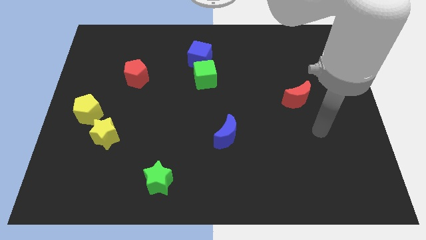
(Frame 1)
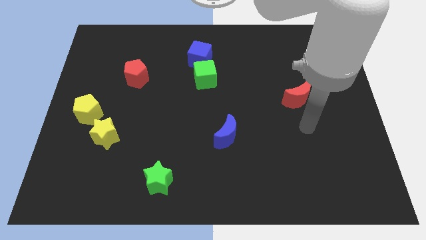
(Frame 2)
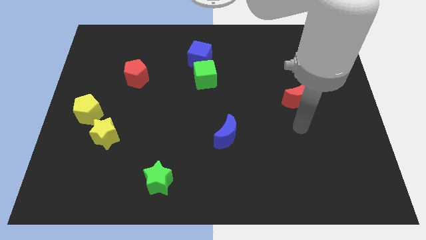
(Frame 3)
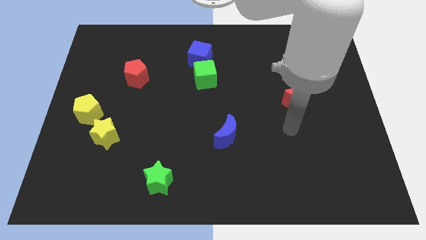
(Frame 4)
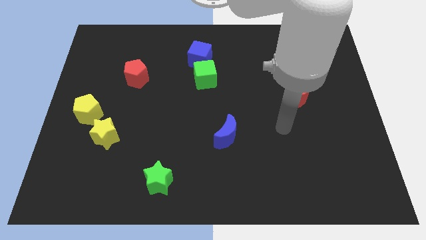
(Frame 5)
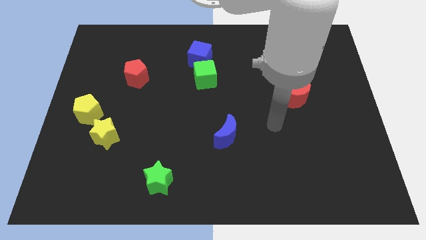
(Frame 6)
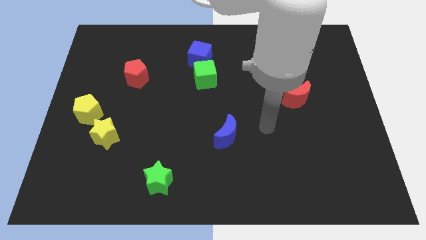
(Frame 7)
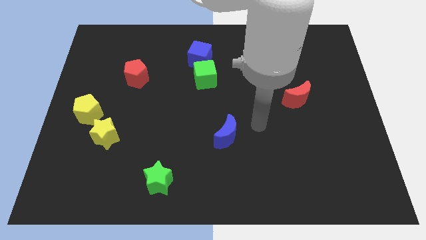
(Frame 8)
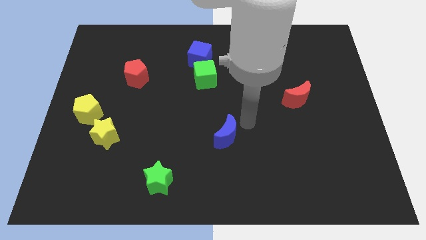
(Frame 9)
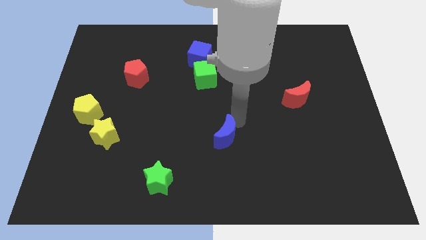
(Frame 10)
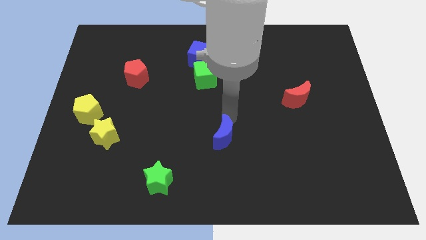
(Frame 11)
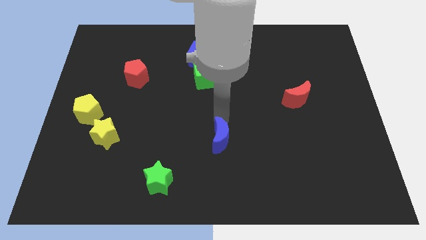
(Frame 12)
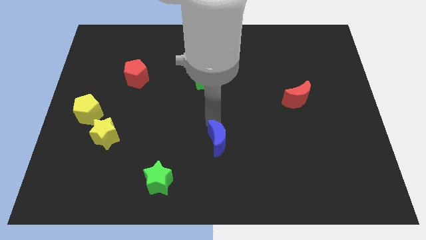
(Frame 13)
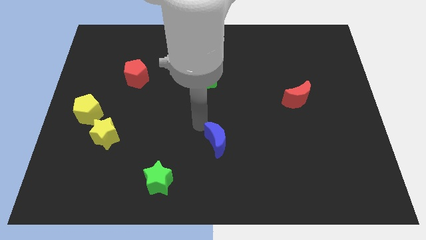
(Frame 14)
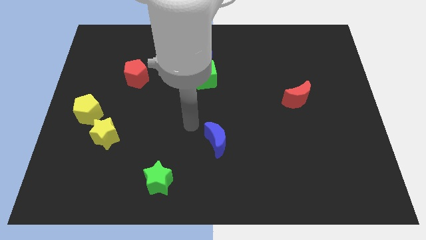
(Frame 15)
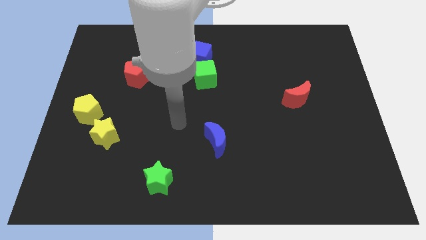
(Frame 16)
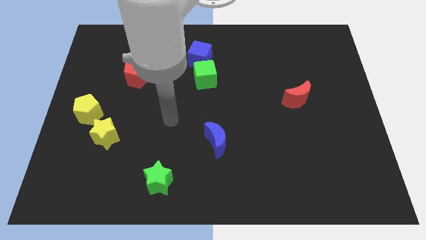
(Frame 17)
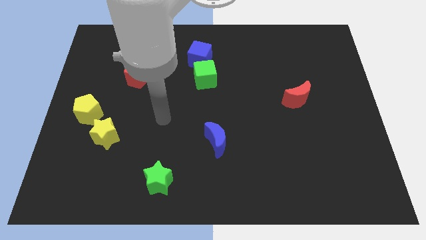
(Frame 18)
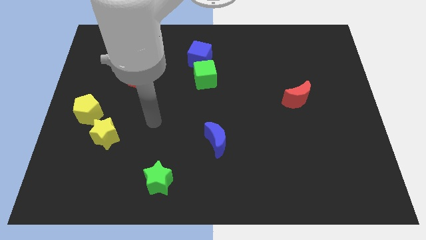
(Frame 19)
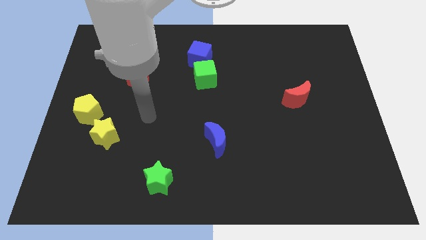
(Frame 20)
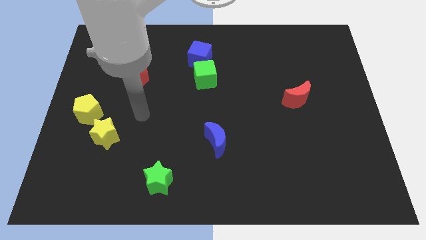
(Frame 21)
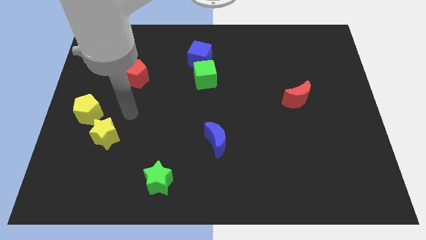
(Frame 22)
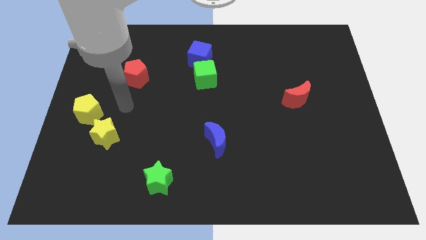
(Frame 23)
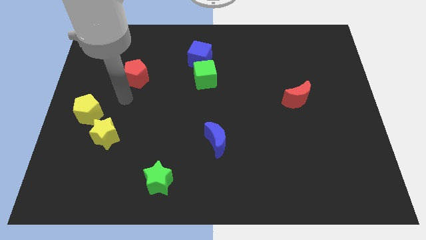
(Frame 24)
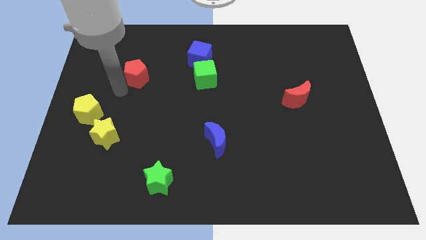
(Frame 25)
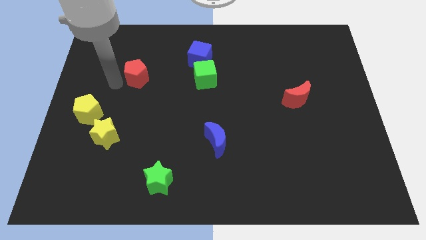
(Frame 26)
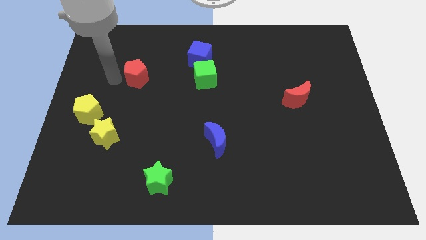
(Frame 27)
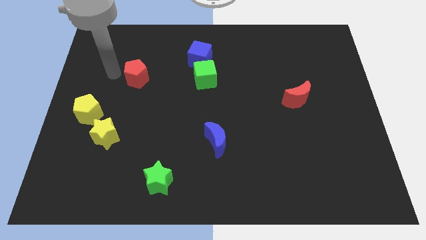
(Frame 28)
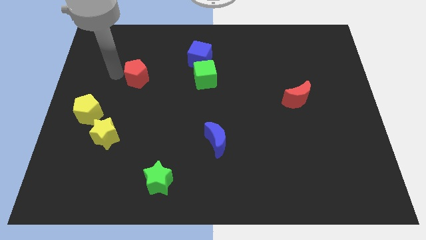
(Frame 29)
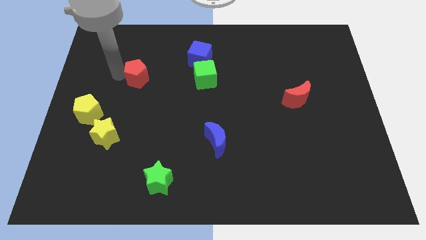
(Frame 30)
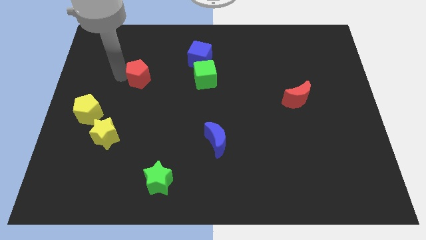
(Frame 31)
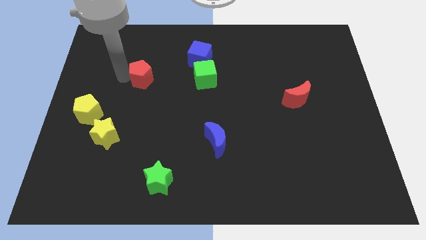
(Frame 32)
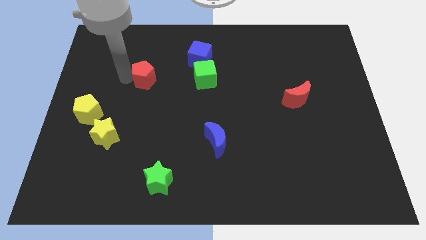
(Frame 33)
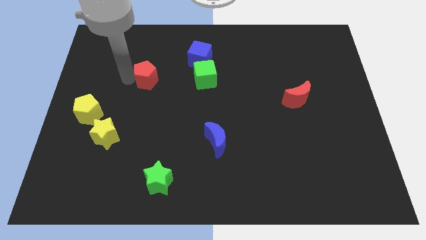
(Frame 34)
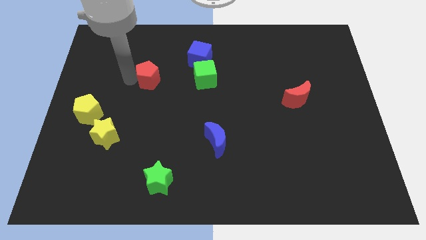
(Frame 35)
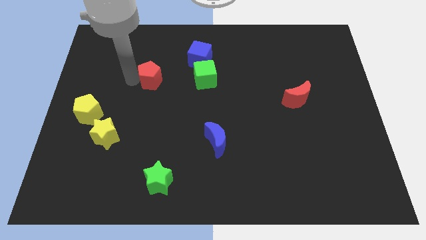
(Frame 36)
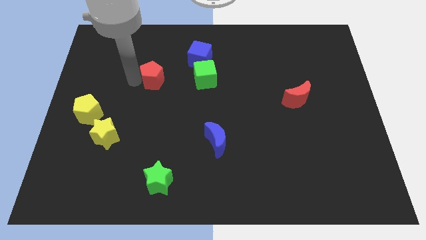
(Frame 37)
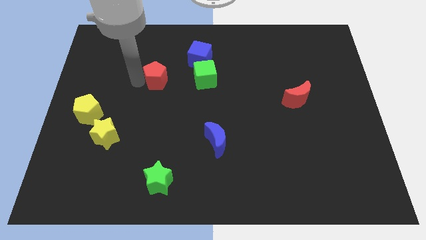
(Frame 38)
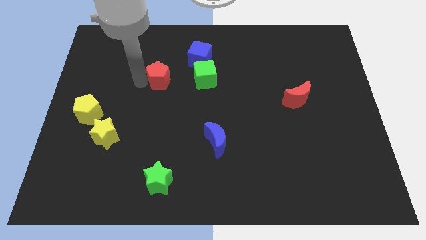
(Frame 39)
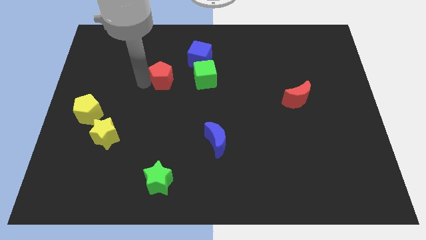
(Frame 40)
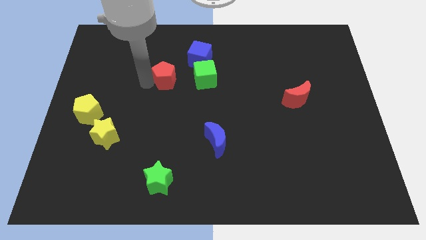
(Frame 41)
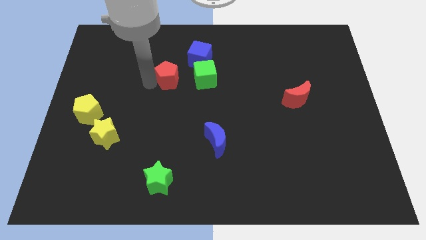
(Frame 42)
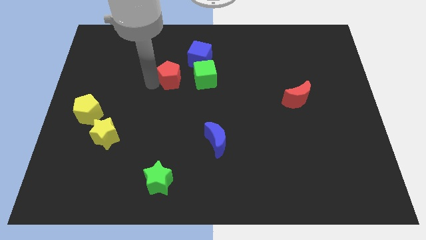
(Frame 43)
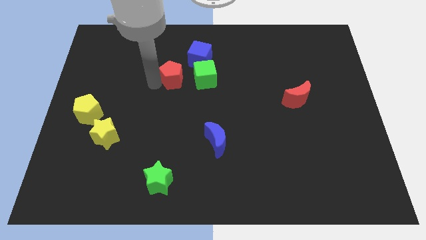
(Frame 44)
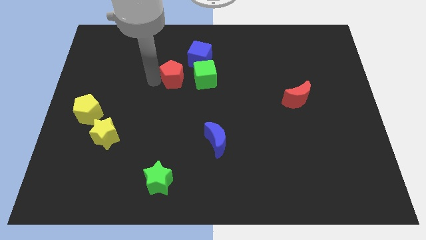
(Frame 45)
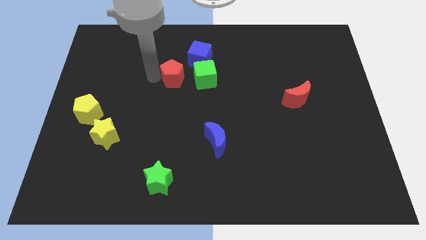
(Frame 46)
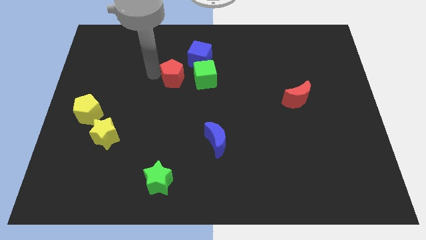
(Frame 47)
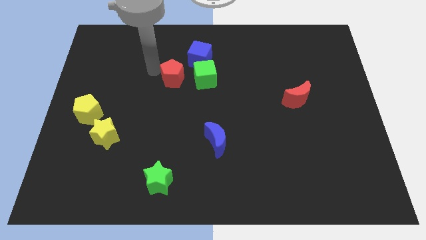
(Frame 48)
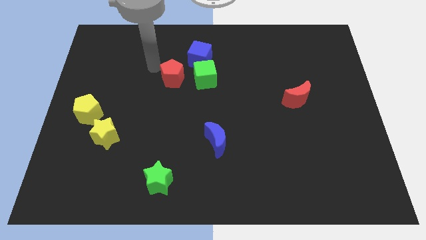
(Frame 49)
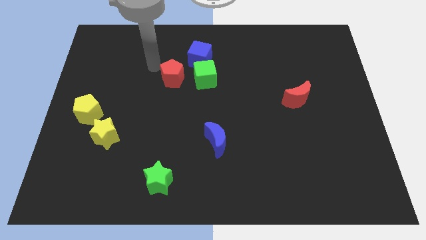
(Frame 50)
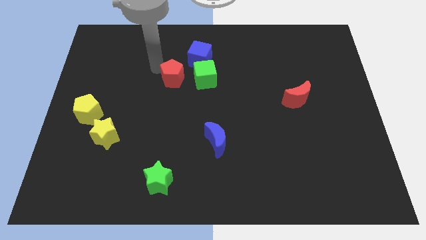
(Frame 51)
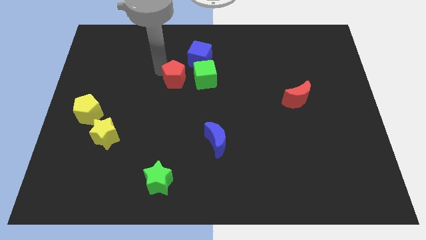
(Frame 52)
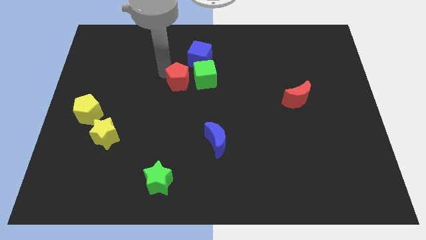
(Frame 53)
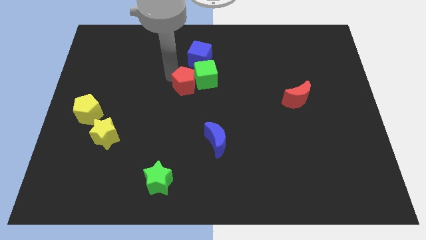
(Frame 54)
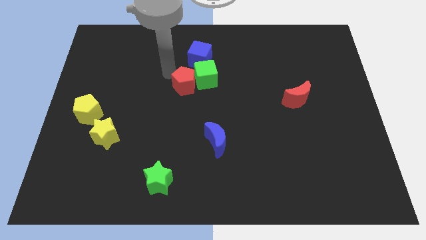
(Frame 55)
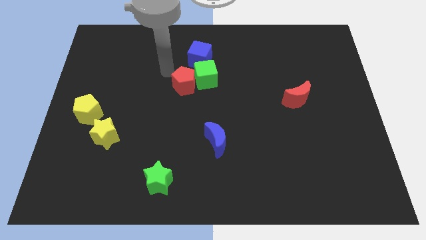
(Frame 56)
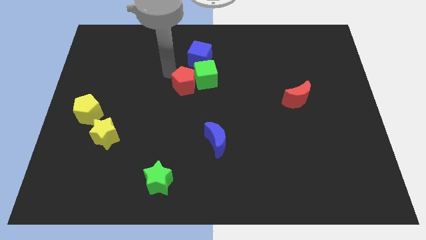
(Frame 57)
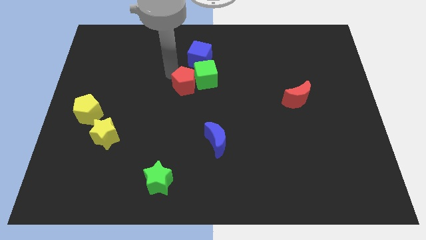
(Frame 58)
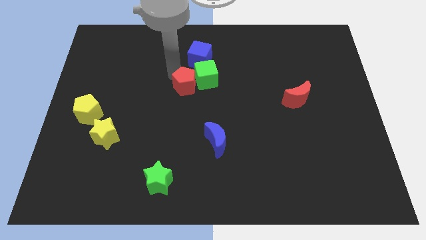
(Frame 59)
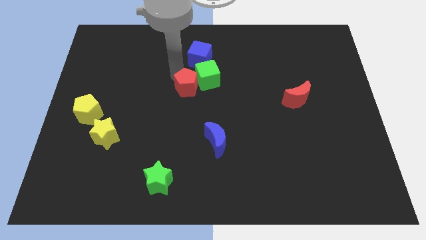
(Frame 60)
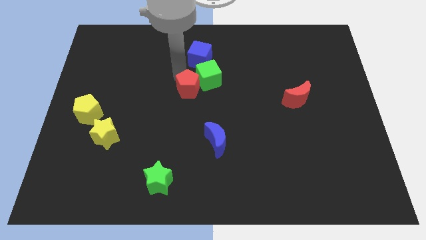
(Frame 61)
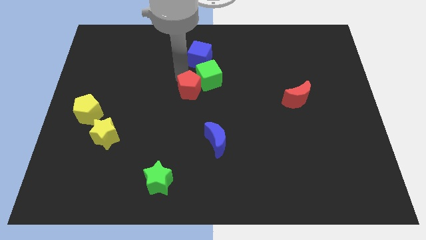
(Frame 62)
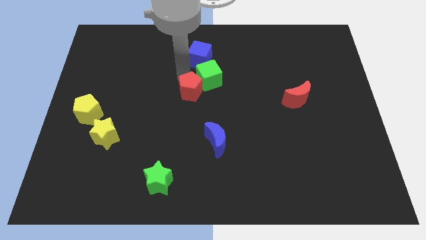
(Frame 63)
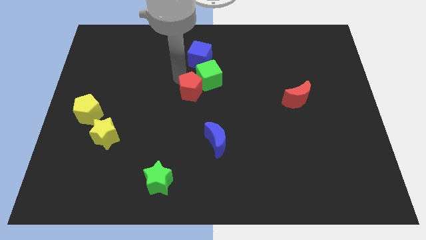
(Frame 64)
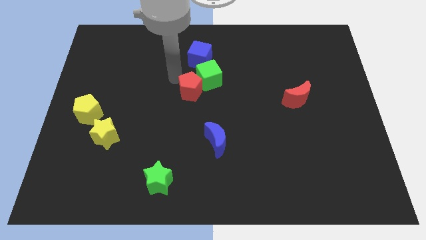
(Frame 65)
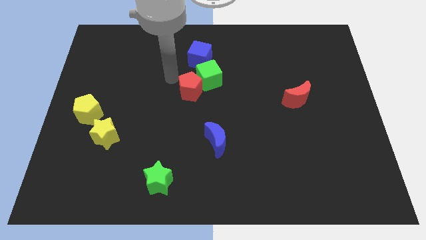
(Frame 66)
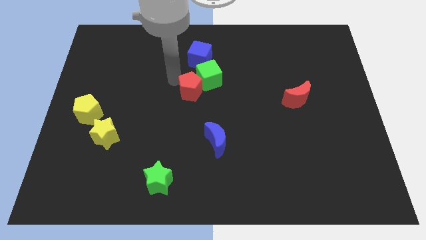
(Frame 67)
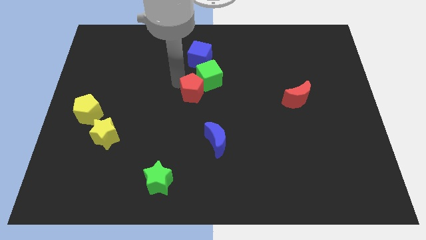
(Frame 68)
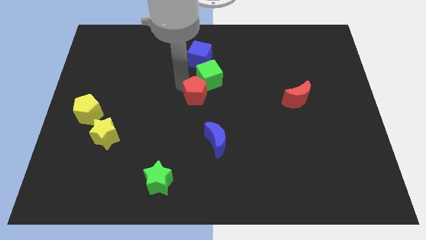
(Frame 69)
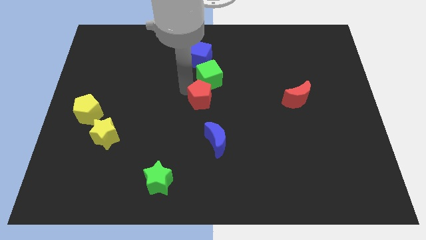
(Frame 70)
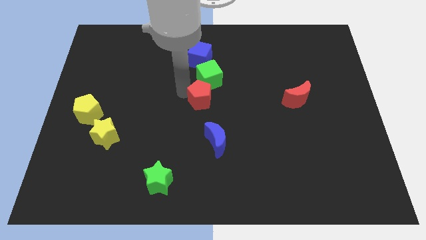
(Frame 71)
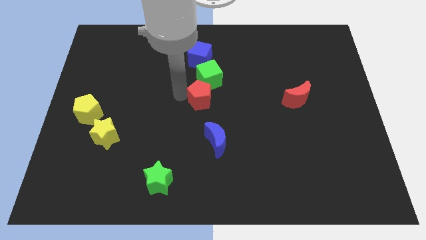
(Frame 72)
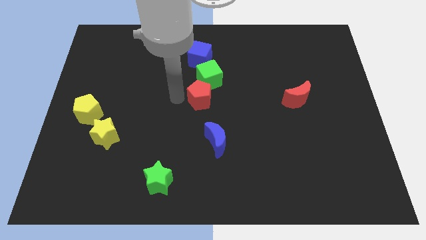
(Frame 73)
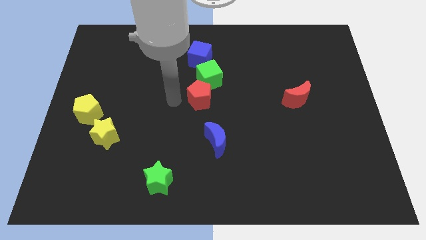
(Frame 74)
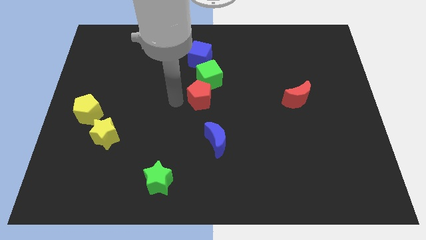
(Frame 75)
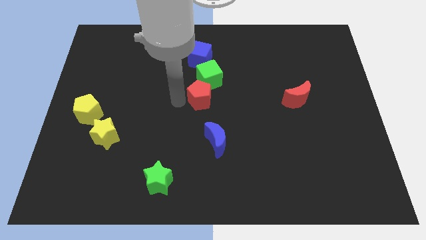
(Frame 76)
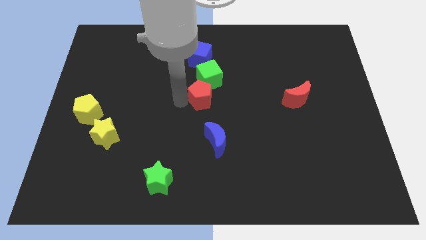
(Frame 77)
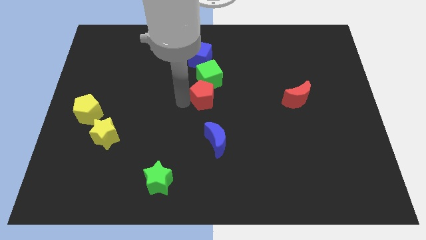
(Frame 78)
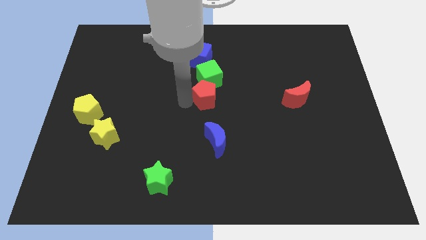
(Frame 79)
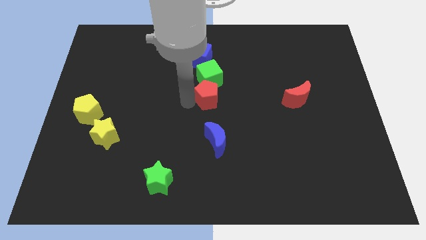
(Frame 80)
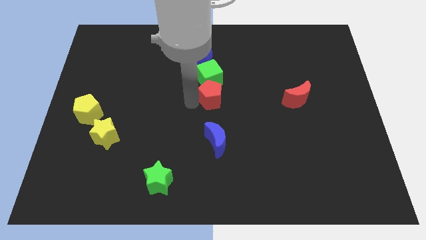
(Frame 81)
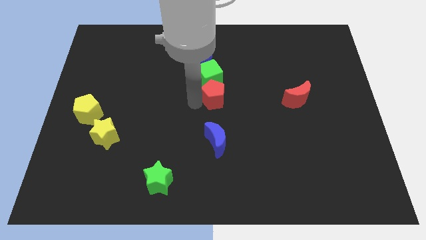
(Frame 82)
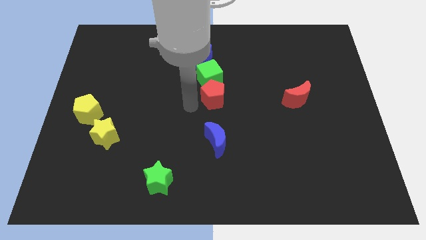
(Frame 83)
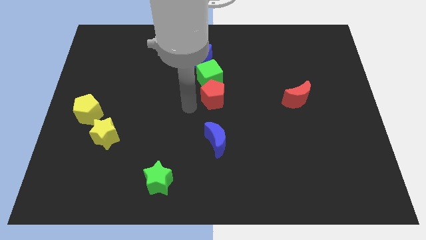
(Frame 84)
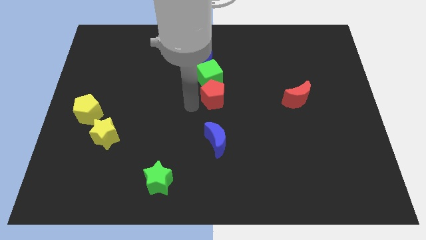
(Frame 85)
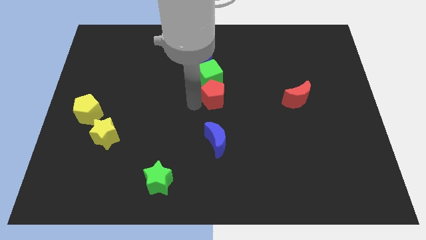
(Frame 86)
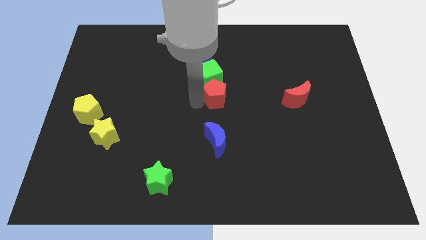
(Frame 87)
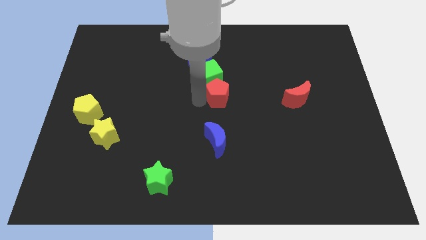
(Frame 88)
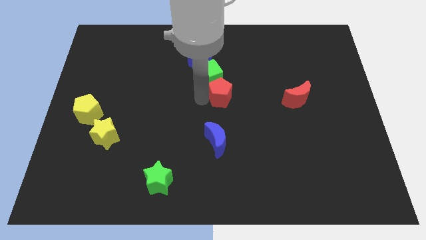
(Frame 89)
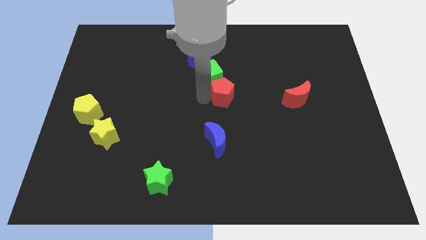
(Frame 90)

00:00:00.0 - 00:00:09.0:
push the red pentagon to the right
